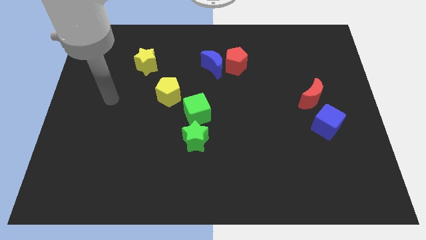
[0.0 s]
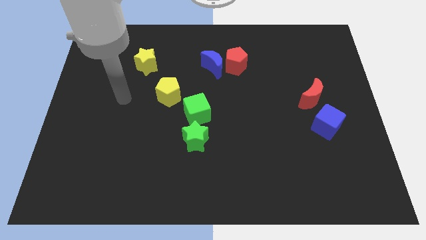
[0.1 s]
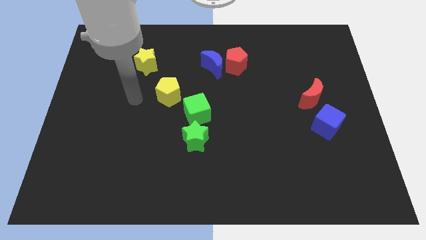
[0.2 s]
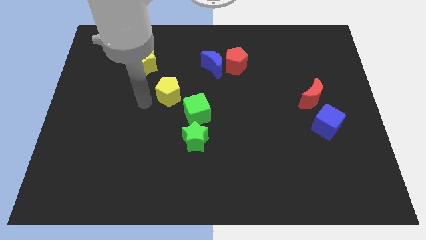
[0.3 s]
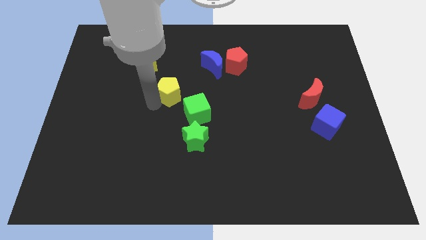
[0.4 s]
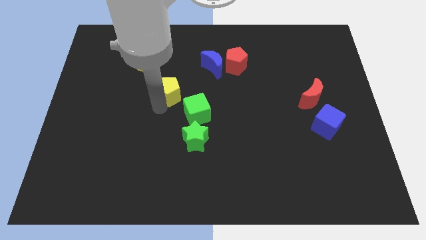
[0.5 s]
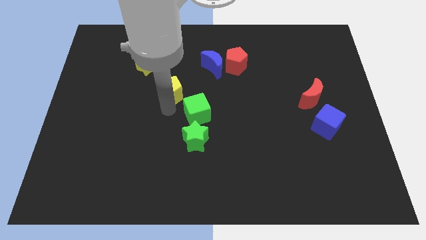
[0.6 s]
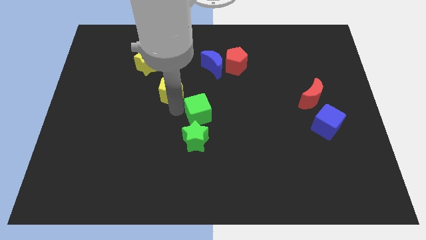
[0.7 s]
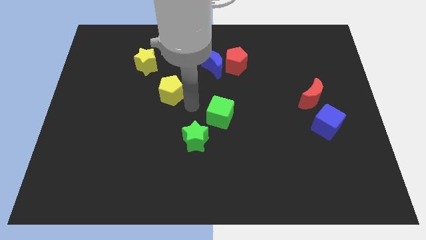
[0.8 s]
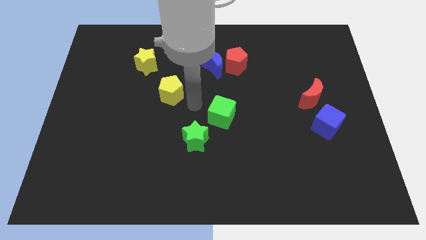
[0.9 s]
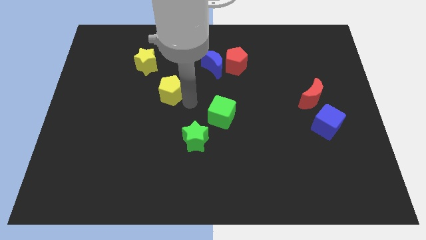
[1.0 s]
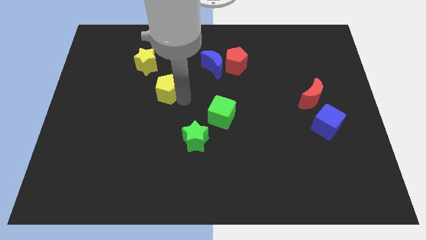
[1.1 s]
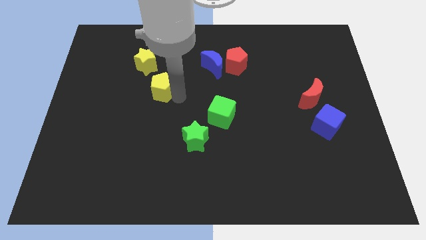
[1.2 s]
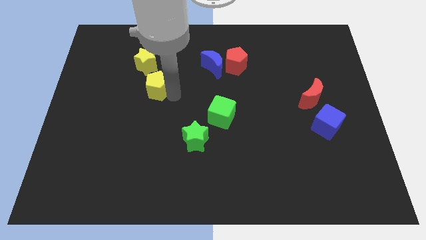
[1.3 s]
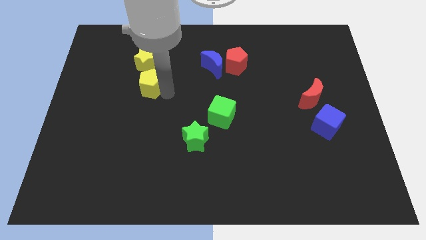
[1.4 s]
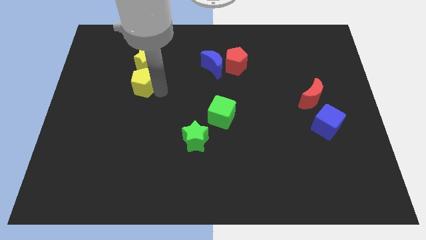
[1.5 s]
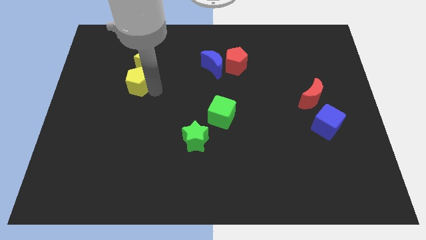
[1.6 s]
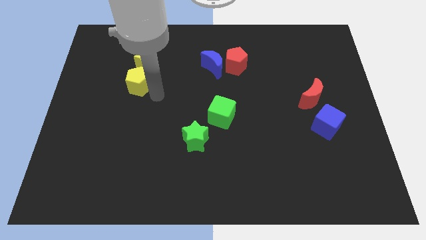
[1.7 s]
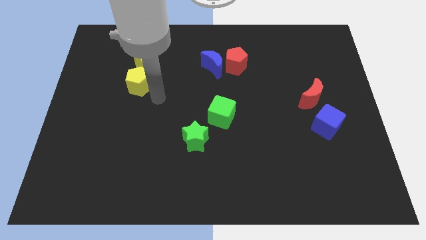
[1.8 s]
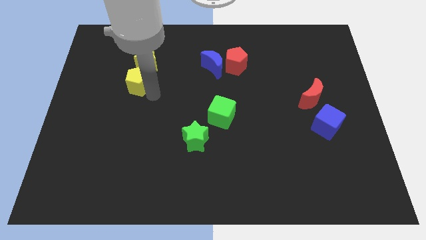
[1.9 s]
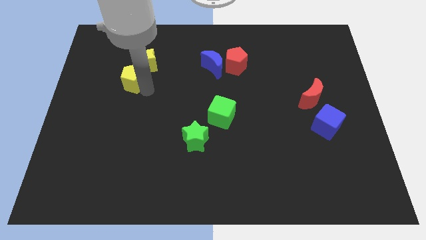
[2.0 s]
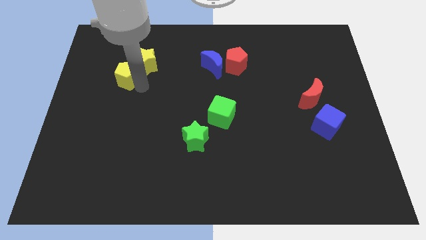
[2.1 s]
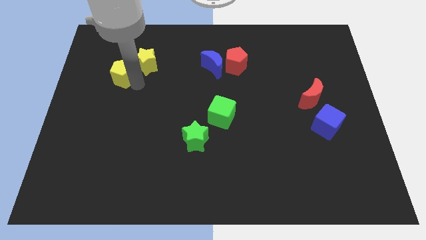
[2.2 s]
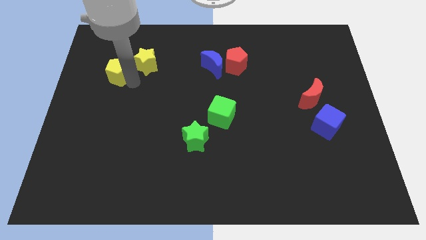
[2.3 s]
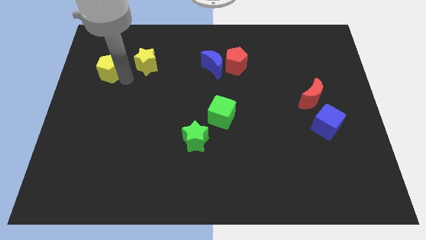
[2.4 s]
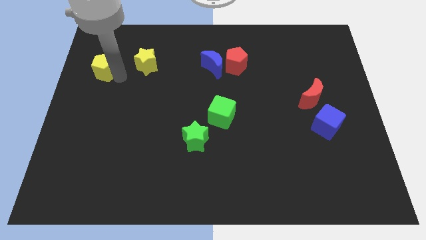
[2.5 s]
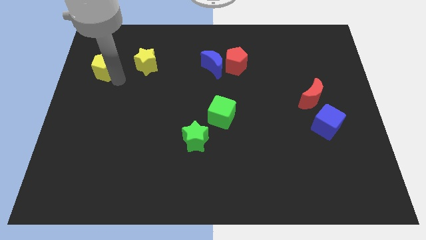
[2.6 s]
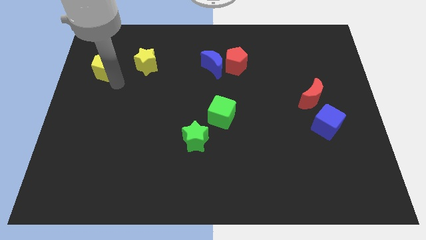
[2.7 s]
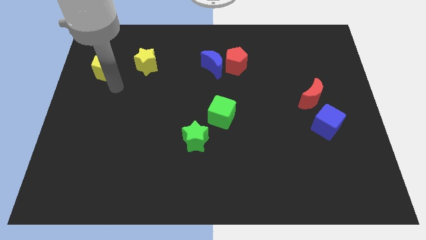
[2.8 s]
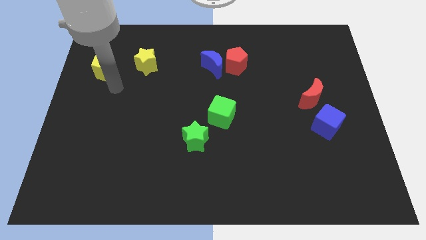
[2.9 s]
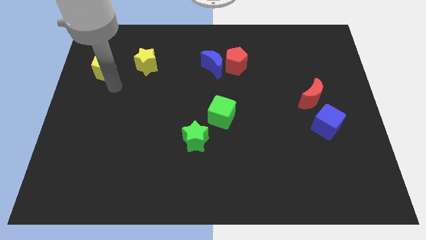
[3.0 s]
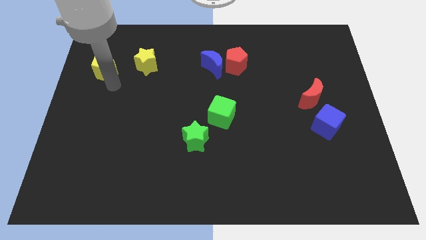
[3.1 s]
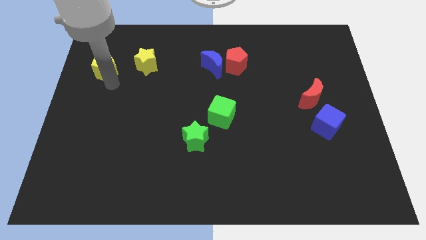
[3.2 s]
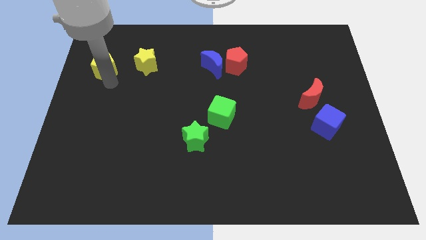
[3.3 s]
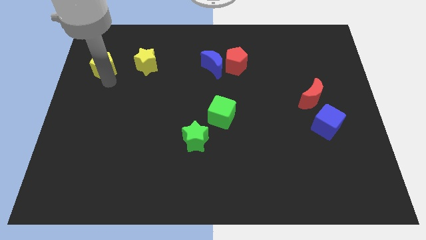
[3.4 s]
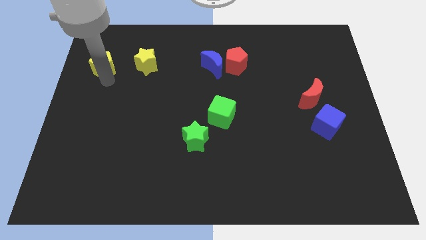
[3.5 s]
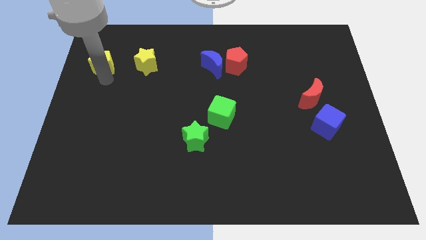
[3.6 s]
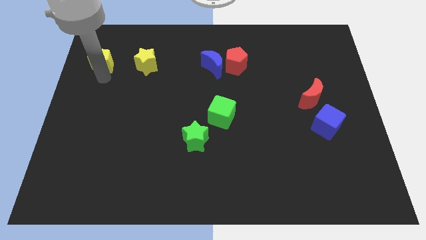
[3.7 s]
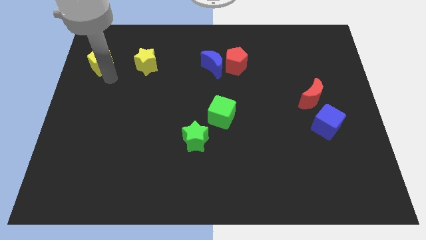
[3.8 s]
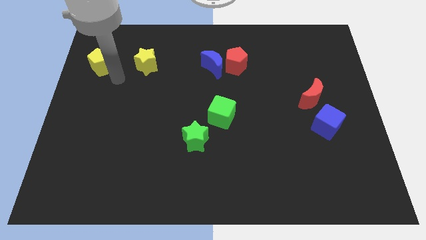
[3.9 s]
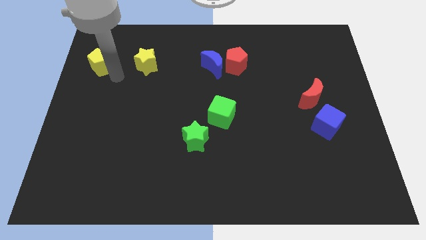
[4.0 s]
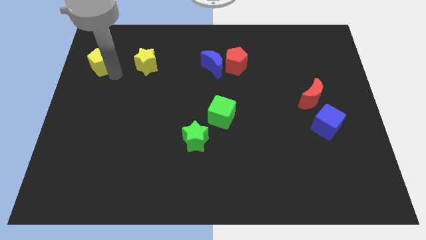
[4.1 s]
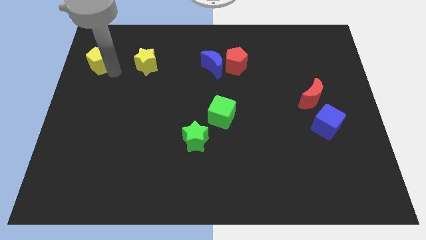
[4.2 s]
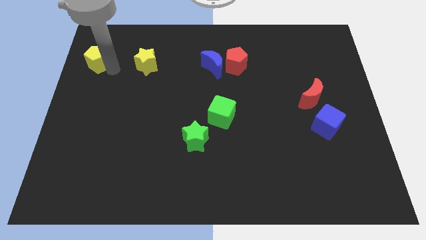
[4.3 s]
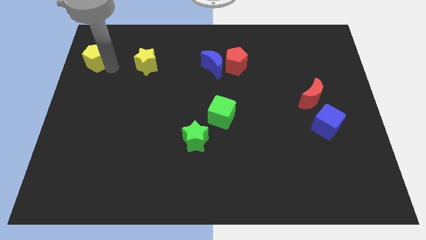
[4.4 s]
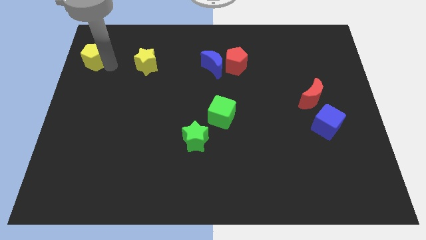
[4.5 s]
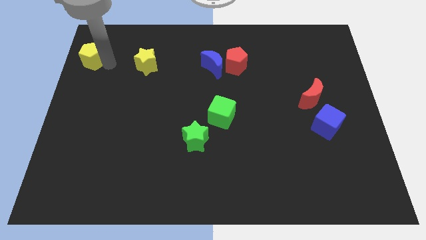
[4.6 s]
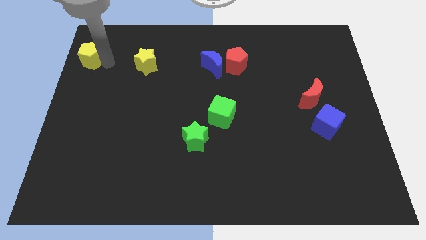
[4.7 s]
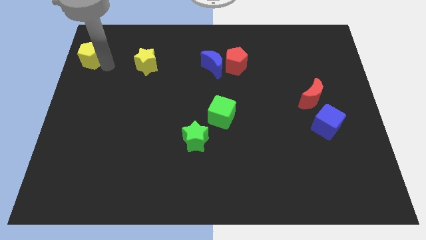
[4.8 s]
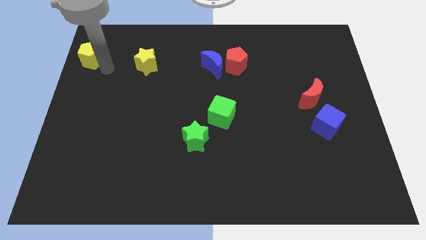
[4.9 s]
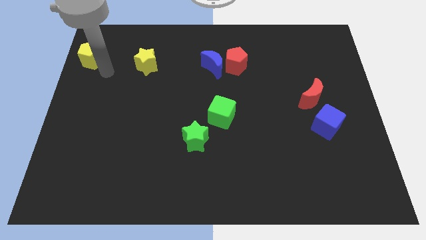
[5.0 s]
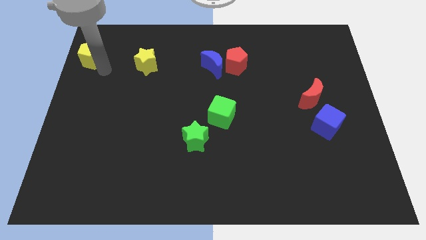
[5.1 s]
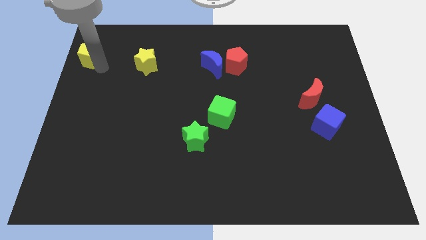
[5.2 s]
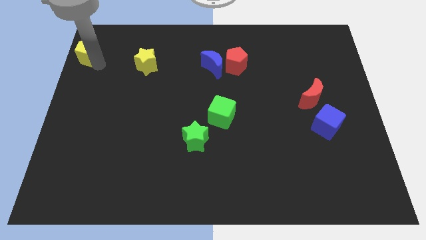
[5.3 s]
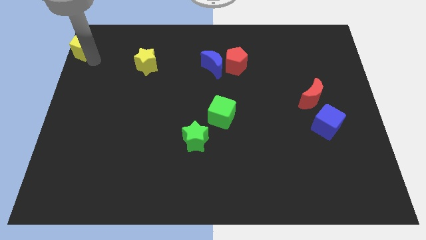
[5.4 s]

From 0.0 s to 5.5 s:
put the yellow pentagon to the top left corner
